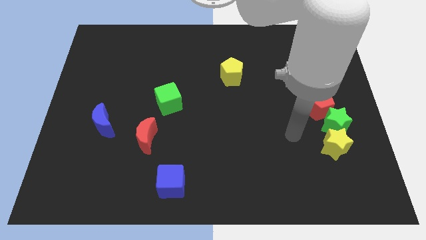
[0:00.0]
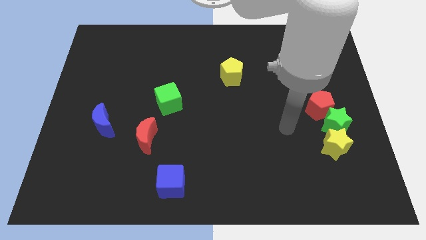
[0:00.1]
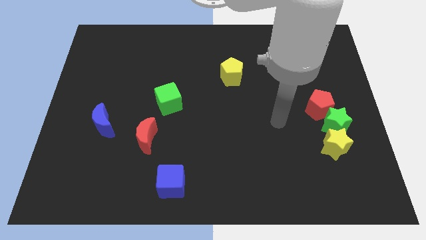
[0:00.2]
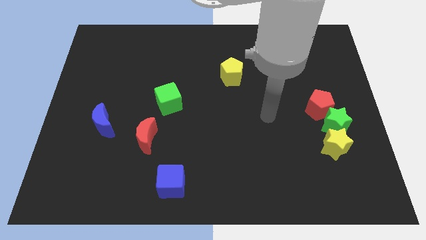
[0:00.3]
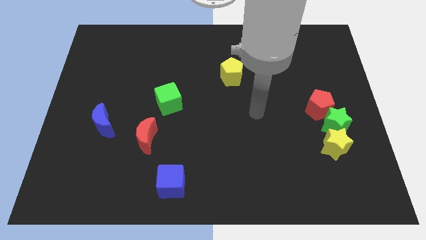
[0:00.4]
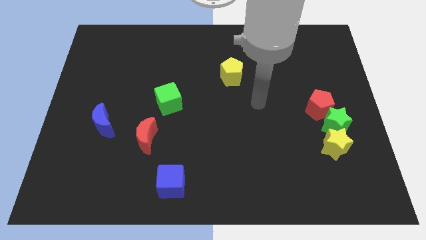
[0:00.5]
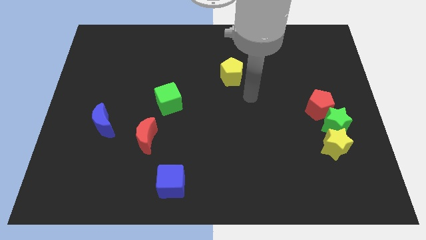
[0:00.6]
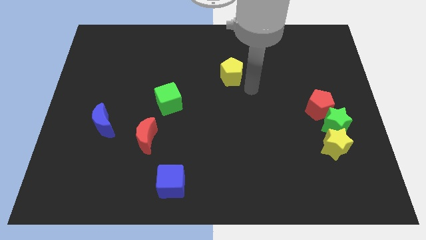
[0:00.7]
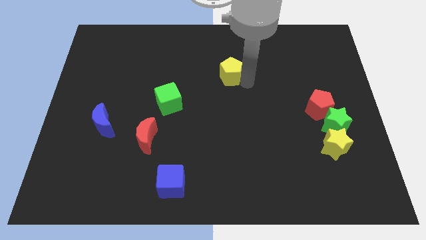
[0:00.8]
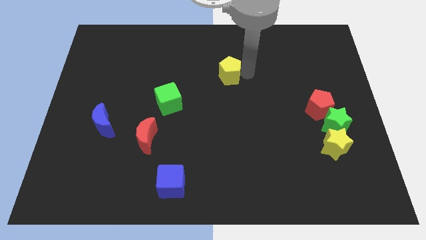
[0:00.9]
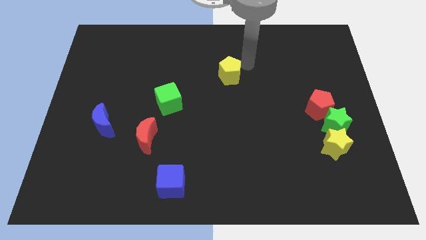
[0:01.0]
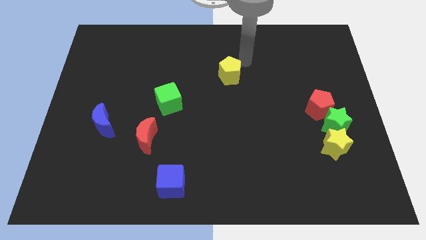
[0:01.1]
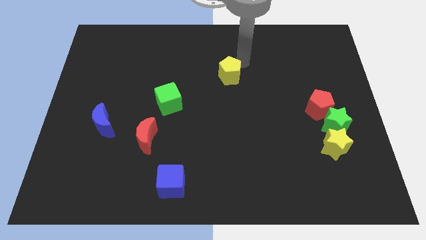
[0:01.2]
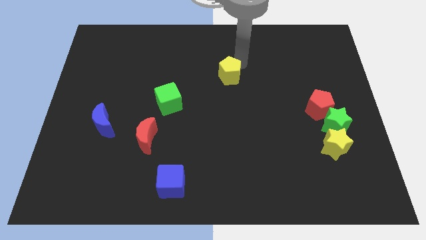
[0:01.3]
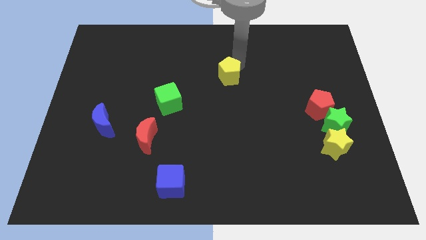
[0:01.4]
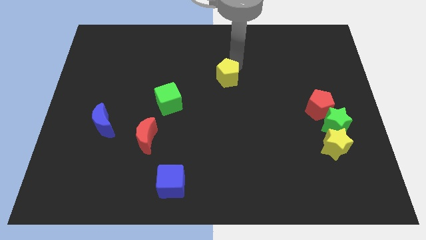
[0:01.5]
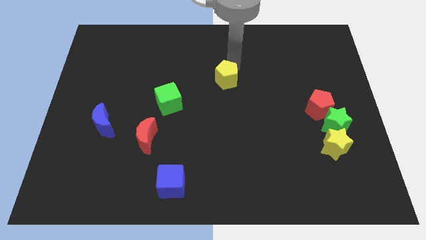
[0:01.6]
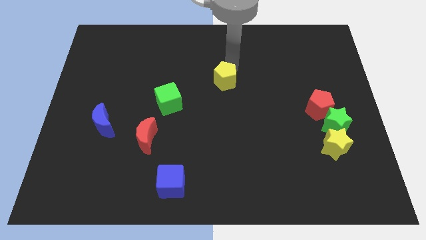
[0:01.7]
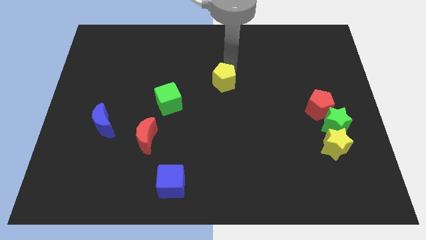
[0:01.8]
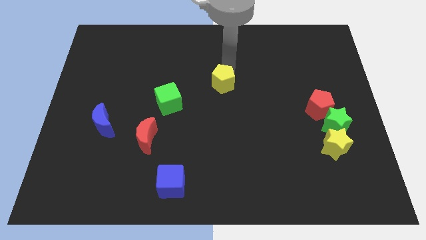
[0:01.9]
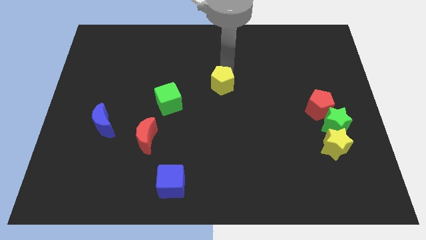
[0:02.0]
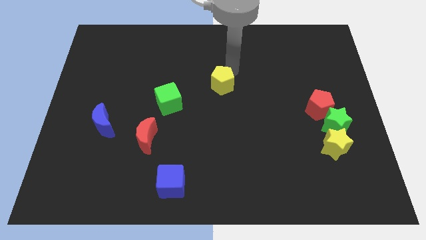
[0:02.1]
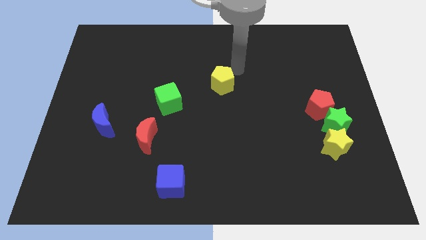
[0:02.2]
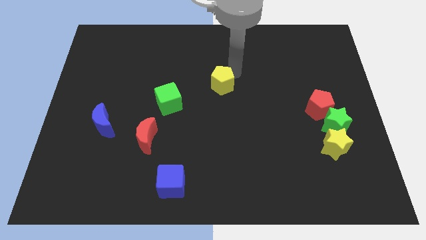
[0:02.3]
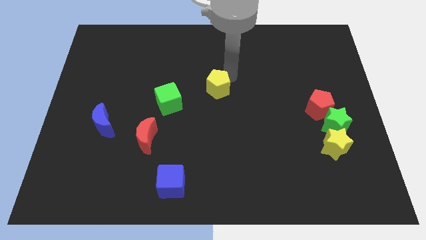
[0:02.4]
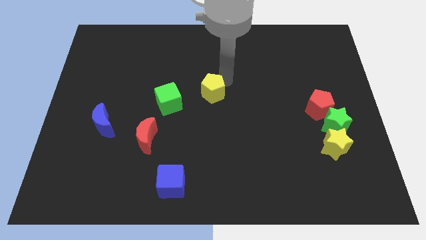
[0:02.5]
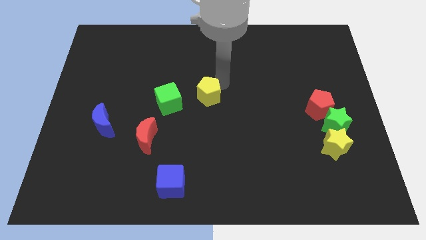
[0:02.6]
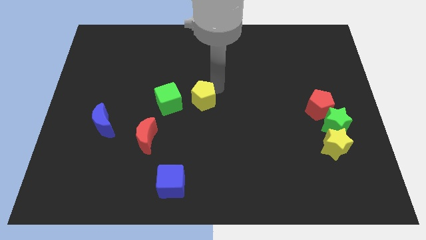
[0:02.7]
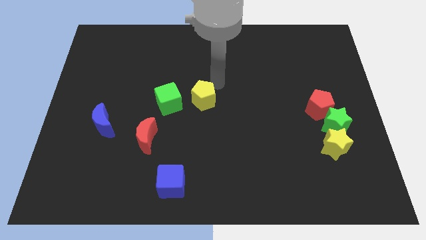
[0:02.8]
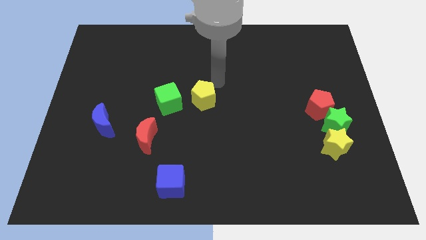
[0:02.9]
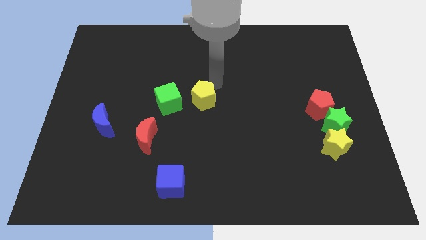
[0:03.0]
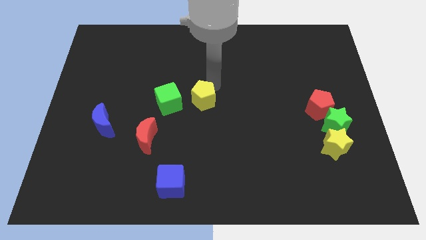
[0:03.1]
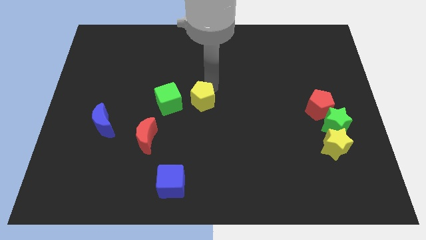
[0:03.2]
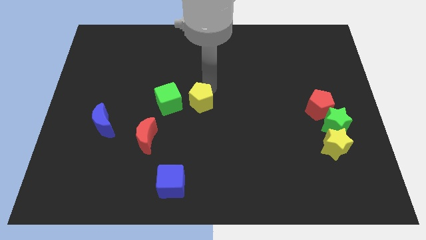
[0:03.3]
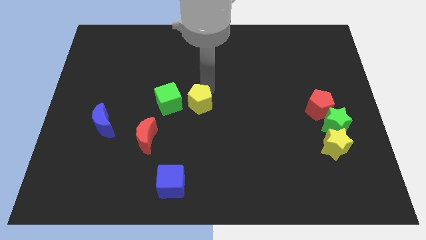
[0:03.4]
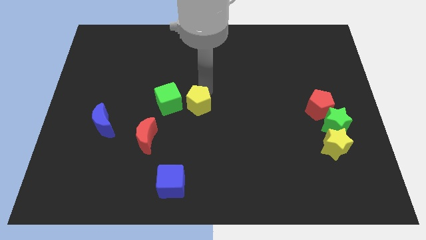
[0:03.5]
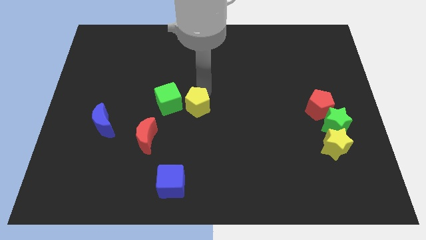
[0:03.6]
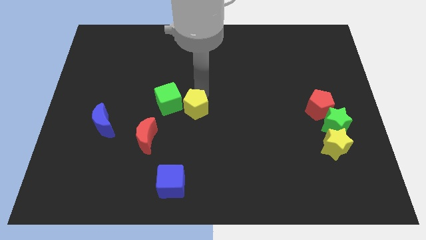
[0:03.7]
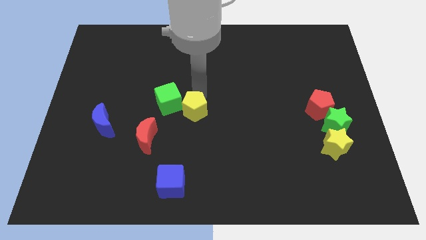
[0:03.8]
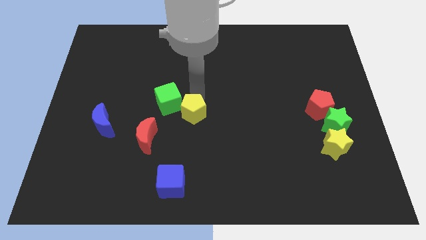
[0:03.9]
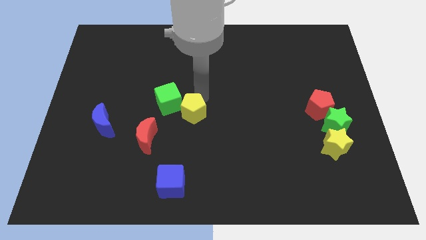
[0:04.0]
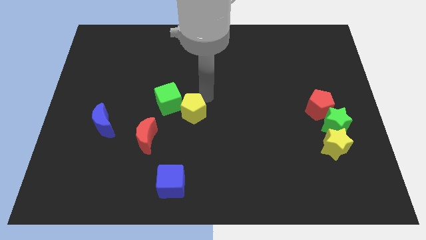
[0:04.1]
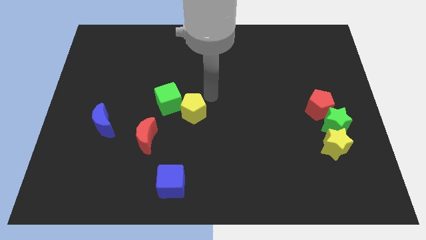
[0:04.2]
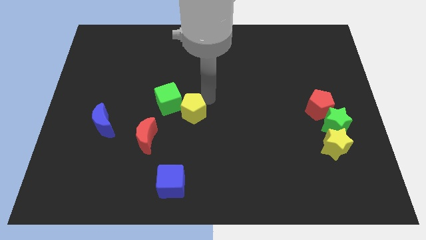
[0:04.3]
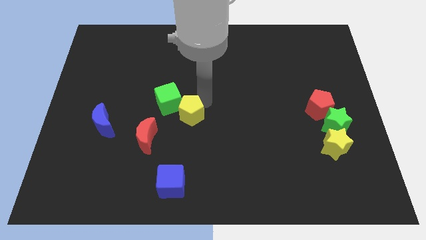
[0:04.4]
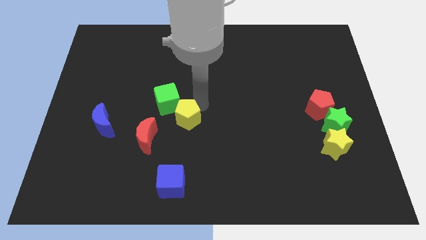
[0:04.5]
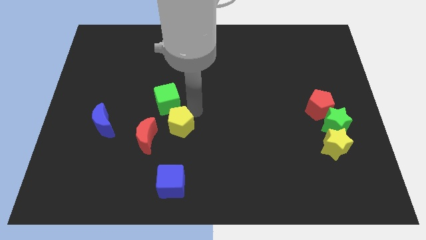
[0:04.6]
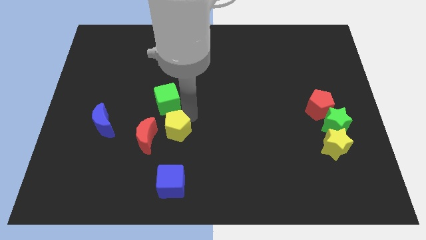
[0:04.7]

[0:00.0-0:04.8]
slide the yellow pentagon diagonally downwards and to the left

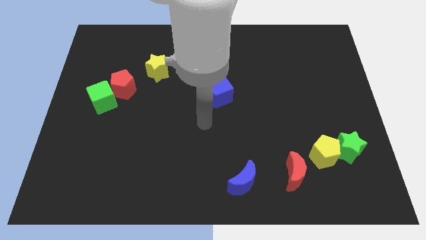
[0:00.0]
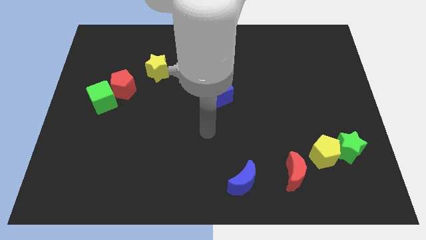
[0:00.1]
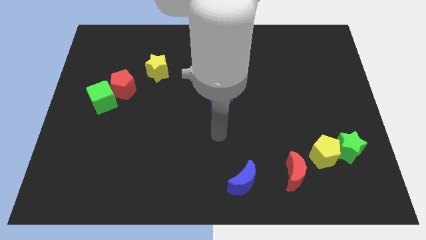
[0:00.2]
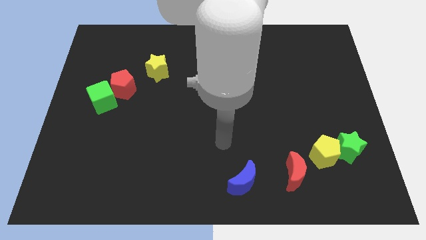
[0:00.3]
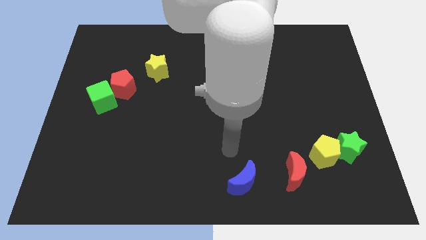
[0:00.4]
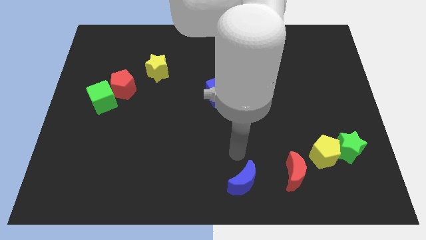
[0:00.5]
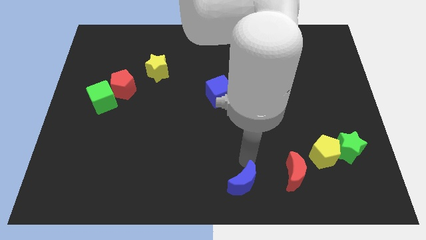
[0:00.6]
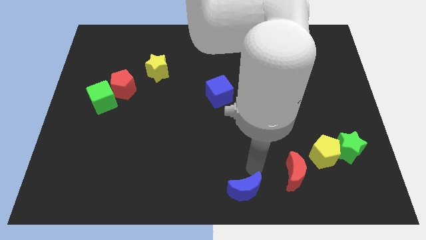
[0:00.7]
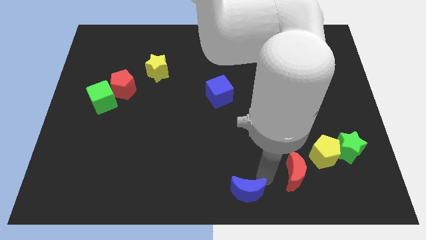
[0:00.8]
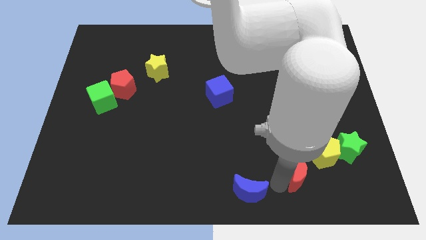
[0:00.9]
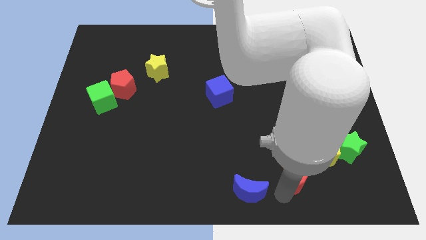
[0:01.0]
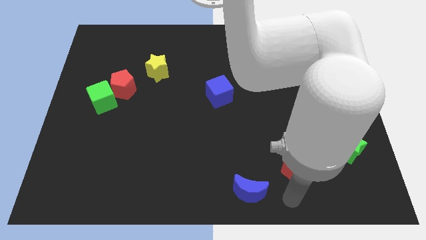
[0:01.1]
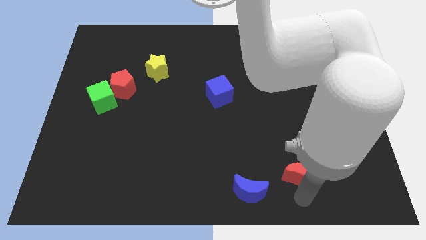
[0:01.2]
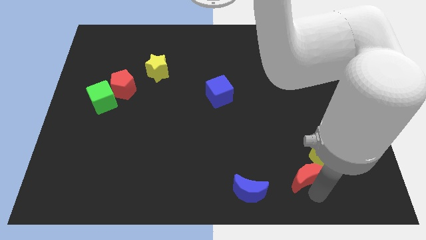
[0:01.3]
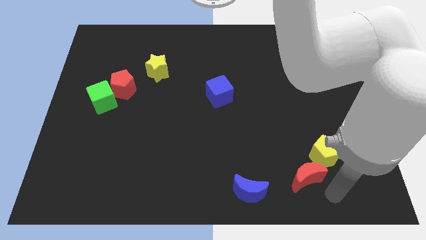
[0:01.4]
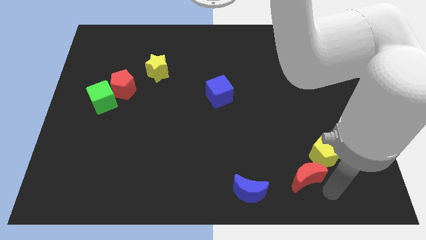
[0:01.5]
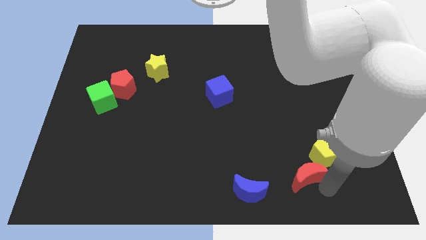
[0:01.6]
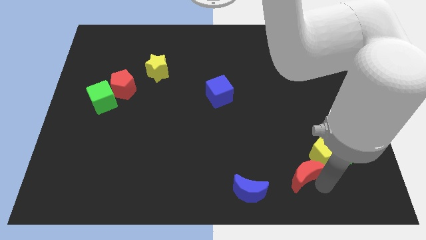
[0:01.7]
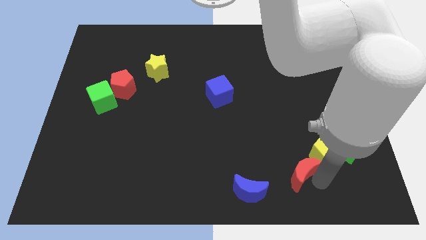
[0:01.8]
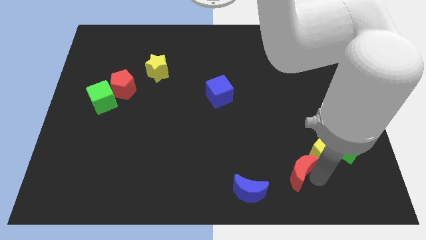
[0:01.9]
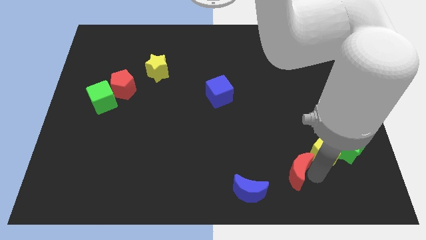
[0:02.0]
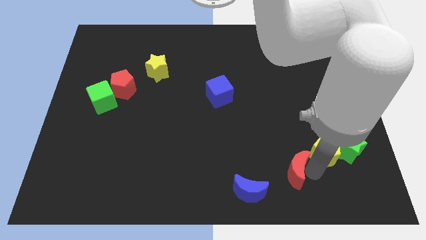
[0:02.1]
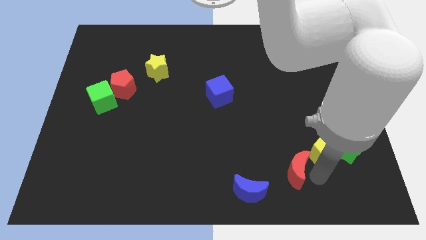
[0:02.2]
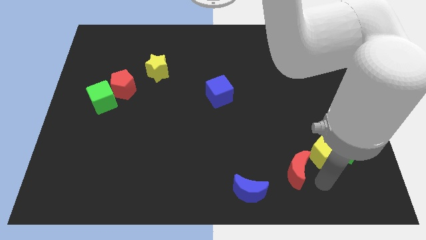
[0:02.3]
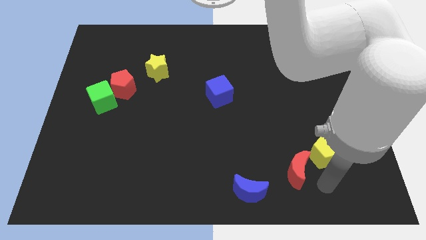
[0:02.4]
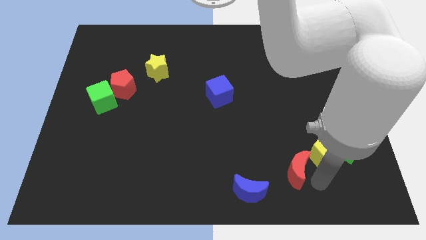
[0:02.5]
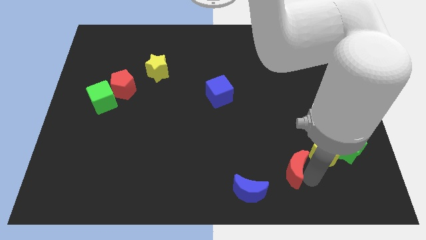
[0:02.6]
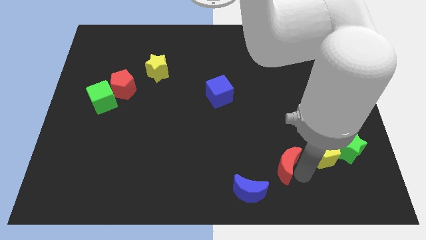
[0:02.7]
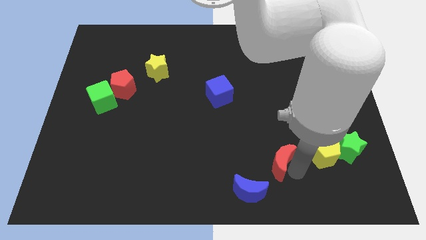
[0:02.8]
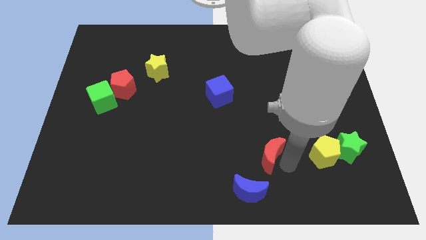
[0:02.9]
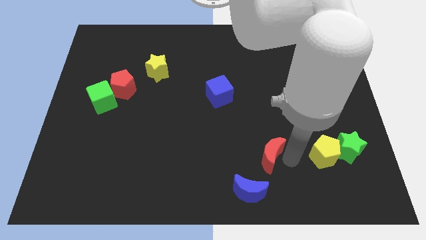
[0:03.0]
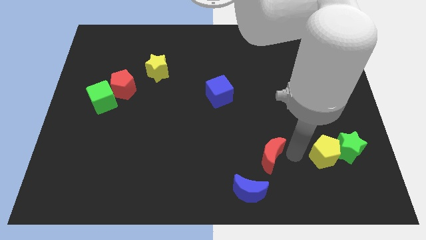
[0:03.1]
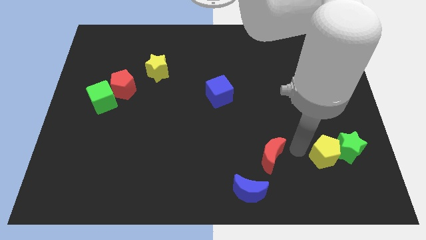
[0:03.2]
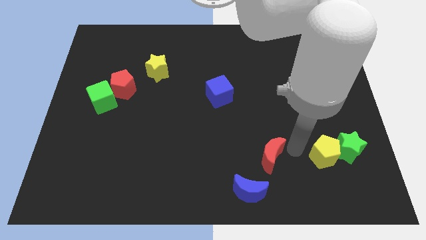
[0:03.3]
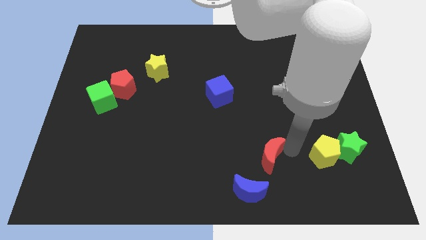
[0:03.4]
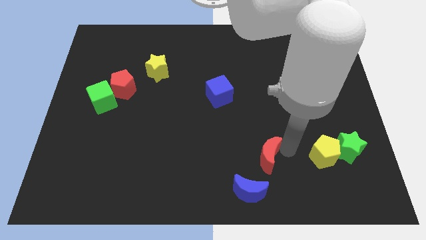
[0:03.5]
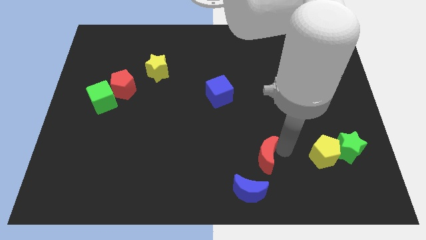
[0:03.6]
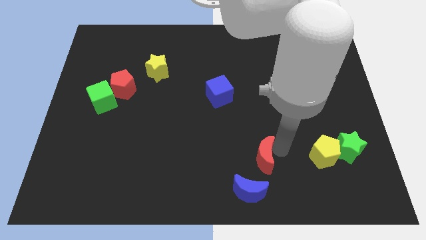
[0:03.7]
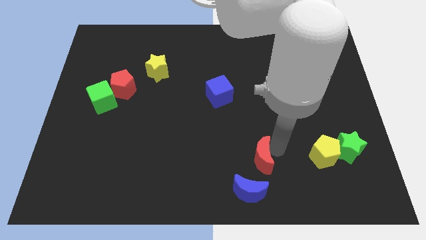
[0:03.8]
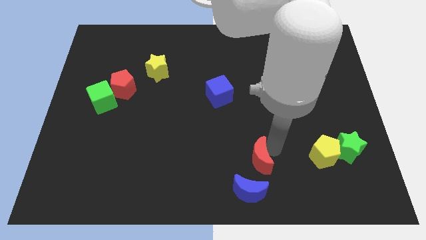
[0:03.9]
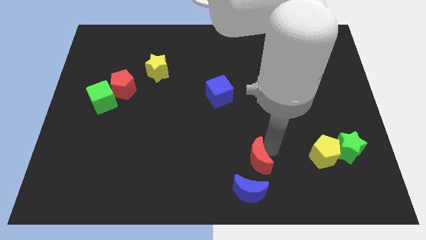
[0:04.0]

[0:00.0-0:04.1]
slightly move the red moon left
